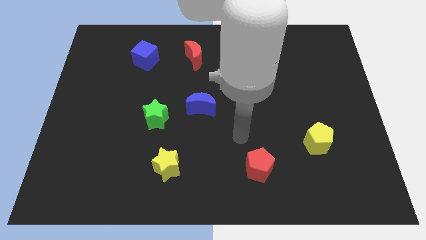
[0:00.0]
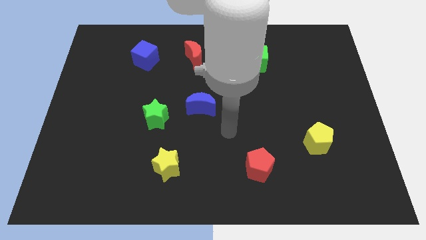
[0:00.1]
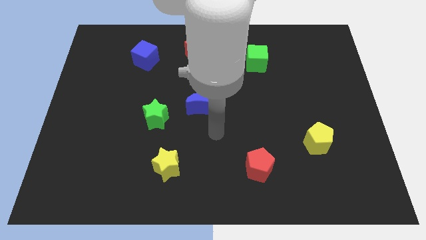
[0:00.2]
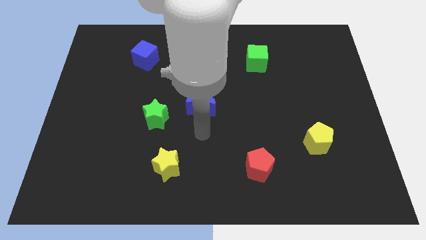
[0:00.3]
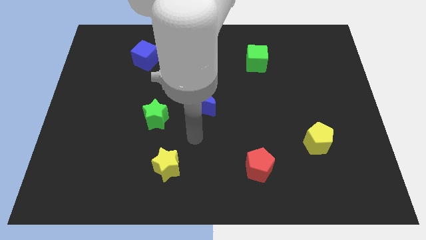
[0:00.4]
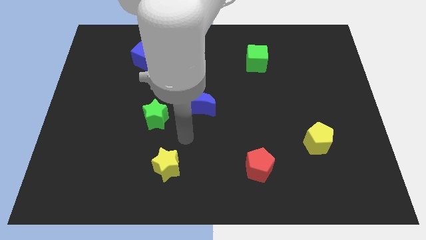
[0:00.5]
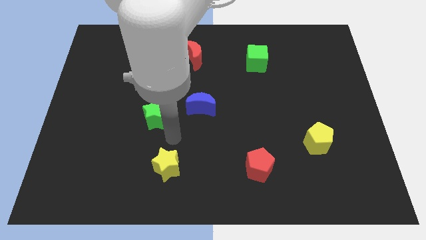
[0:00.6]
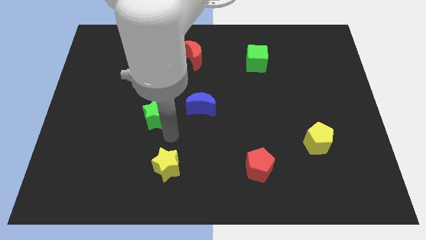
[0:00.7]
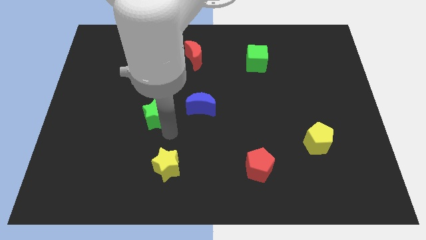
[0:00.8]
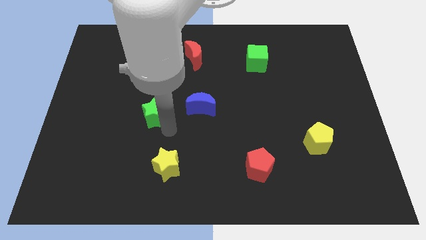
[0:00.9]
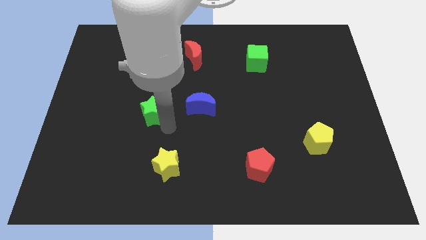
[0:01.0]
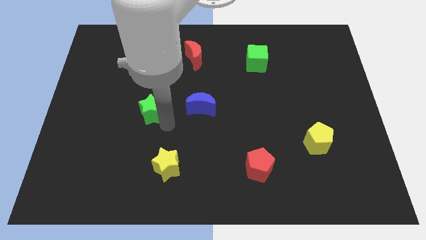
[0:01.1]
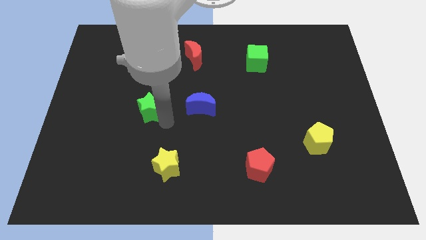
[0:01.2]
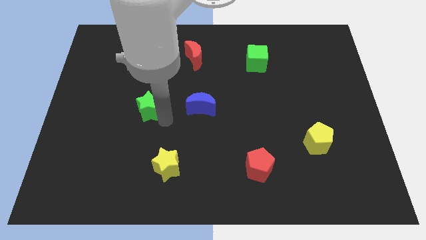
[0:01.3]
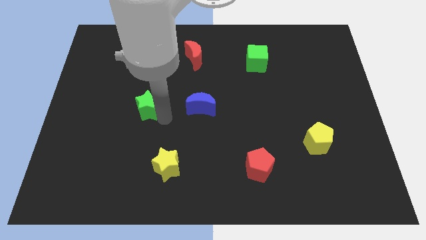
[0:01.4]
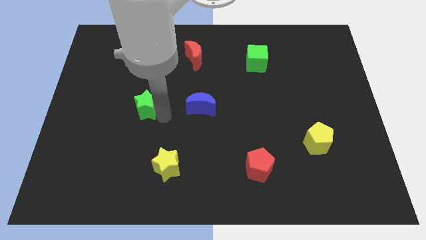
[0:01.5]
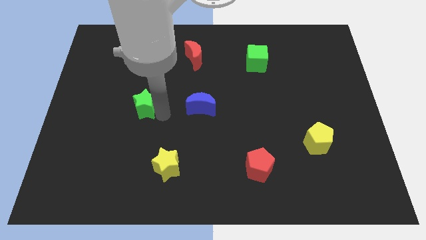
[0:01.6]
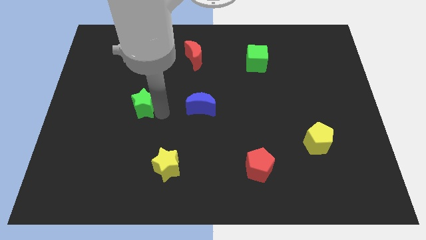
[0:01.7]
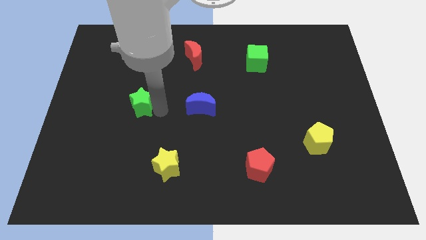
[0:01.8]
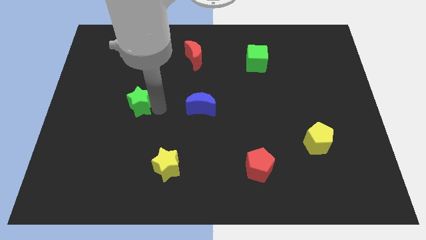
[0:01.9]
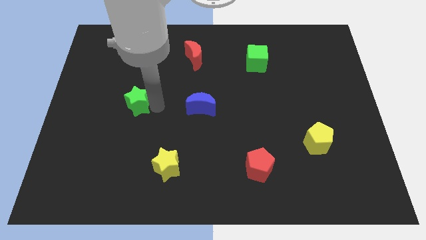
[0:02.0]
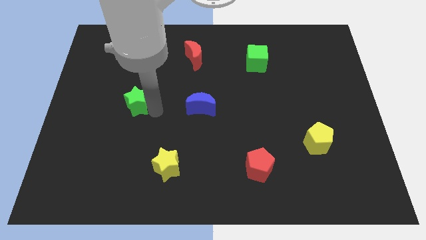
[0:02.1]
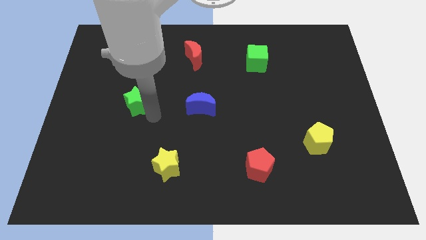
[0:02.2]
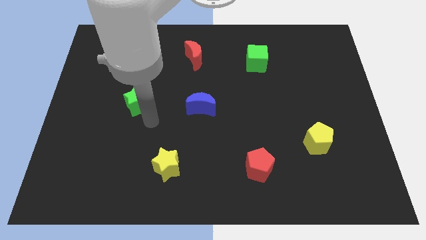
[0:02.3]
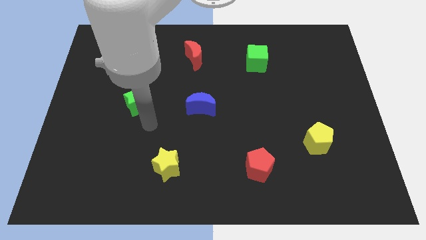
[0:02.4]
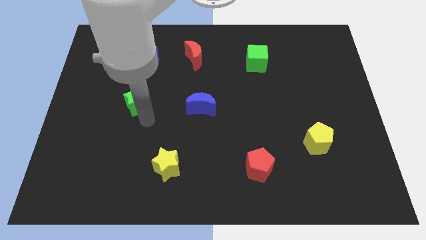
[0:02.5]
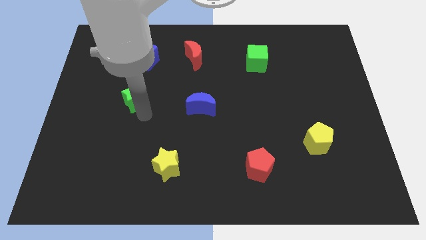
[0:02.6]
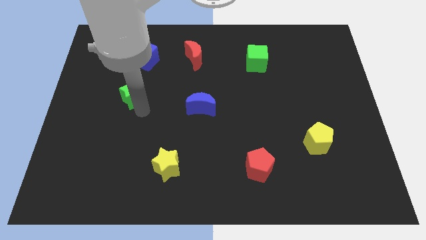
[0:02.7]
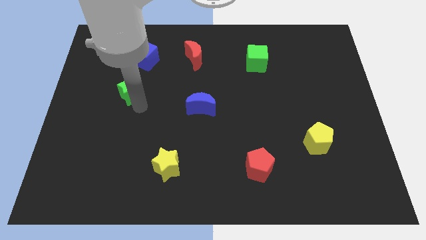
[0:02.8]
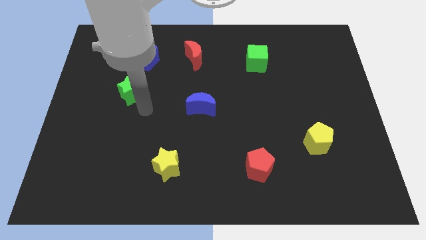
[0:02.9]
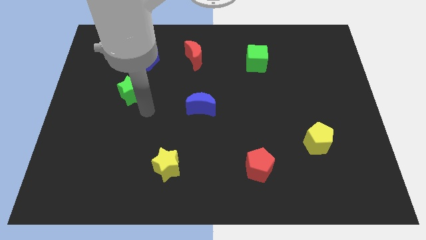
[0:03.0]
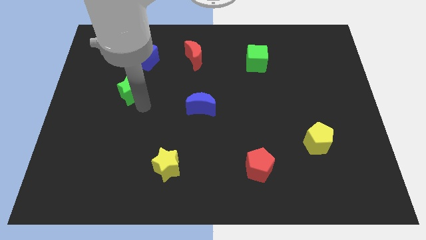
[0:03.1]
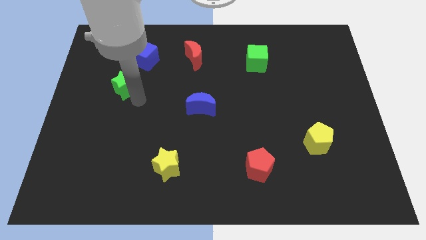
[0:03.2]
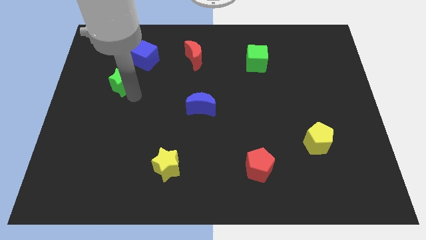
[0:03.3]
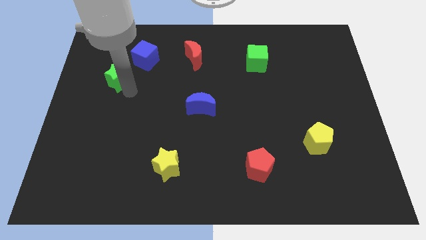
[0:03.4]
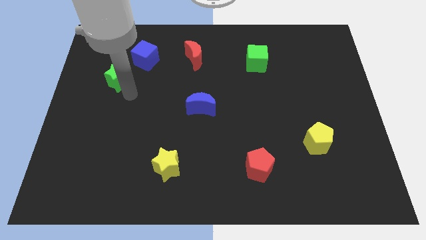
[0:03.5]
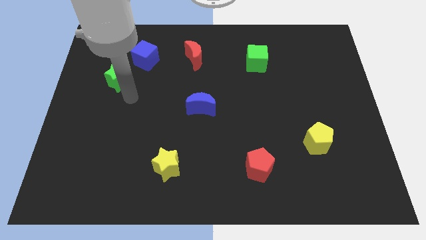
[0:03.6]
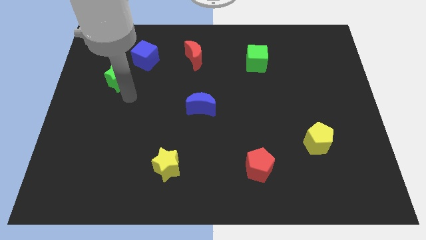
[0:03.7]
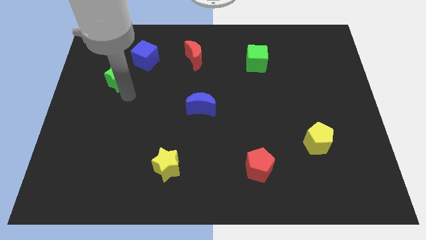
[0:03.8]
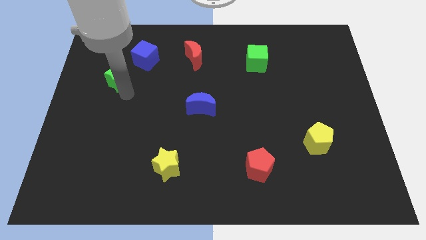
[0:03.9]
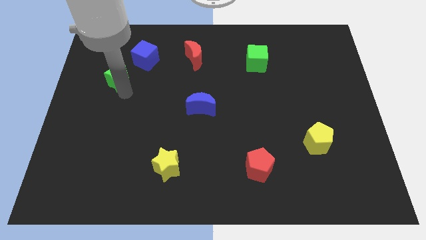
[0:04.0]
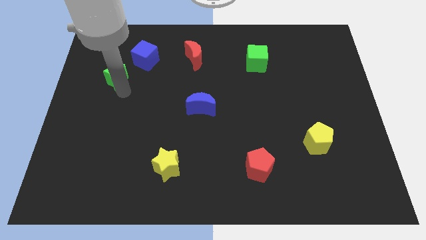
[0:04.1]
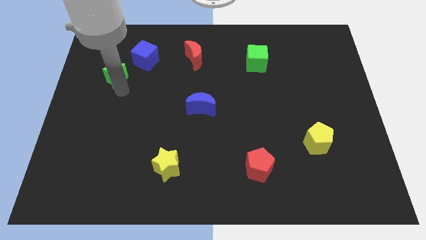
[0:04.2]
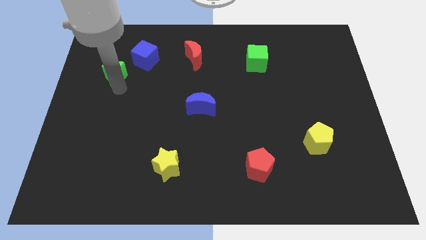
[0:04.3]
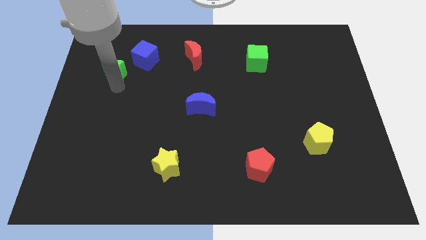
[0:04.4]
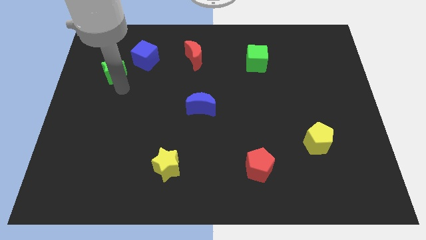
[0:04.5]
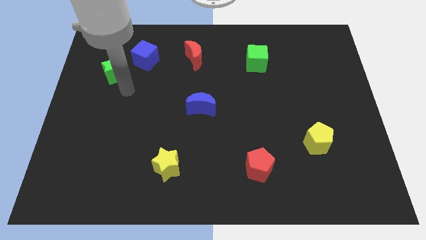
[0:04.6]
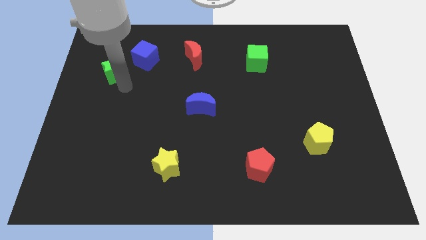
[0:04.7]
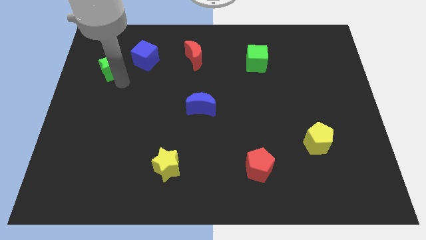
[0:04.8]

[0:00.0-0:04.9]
slide the green star just left of the blue cube

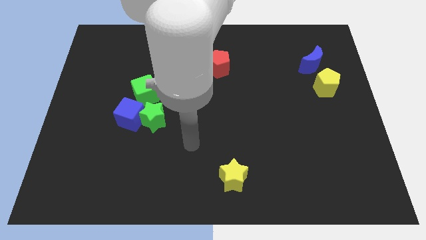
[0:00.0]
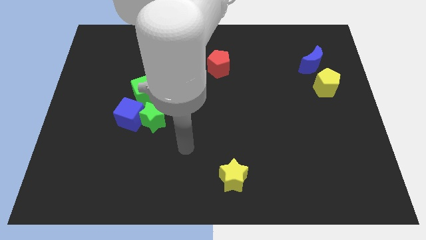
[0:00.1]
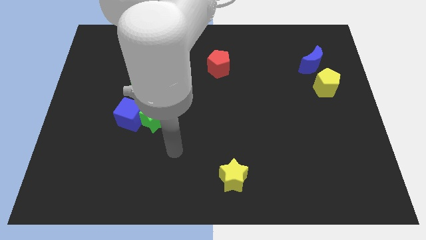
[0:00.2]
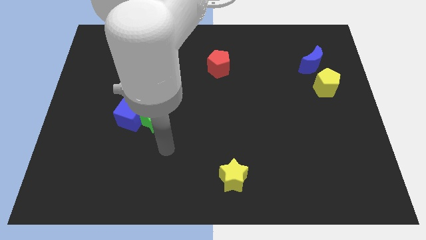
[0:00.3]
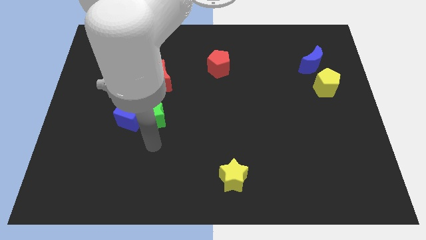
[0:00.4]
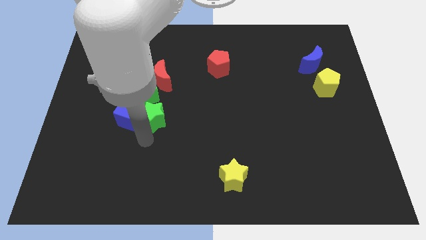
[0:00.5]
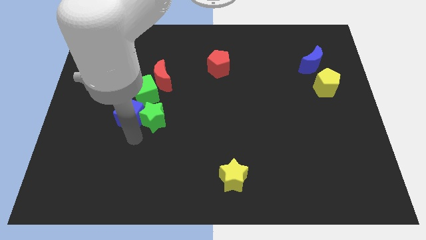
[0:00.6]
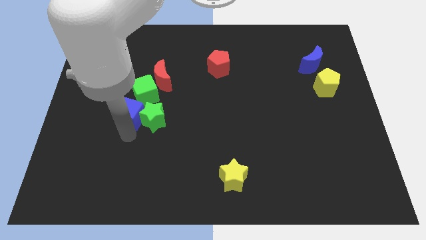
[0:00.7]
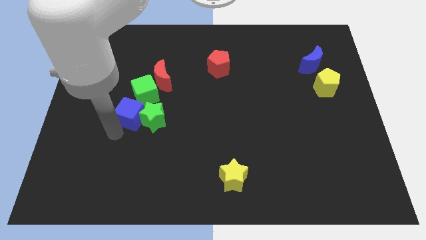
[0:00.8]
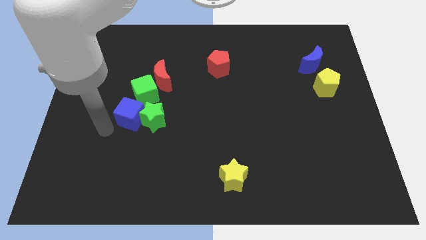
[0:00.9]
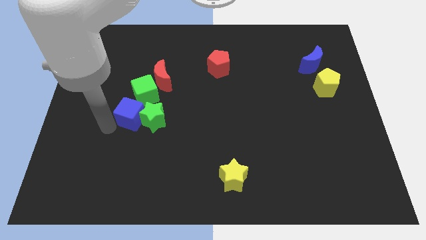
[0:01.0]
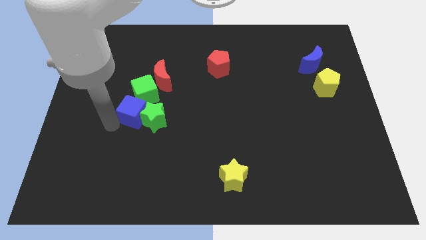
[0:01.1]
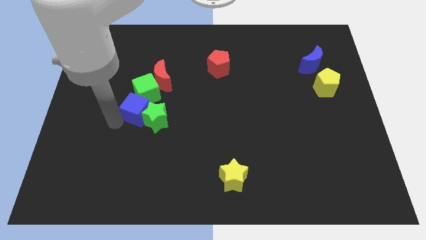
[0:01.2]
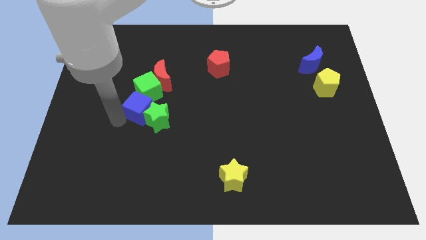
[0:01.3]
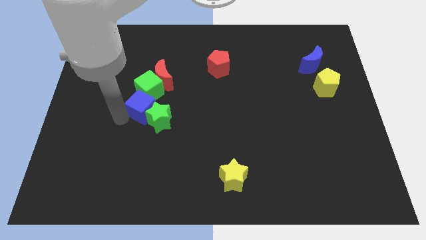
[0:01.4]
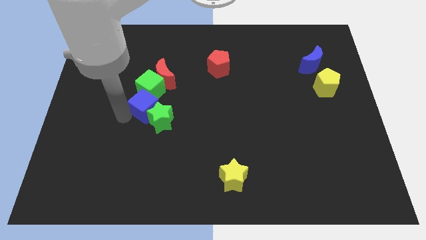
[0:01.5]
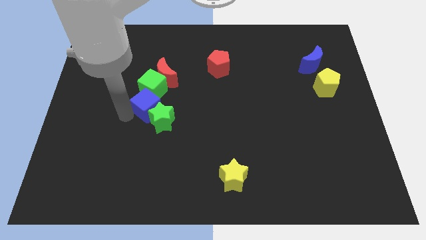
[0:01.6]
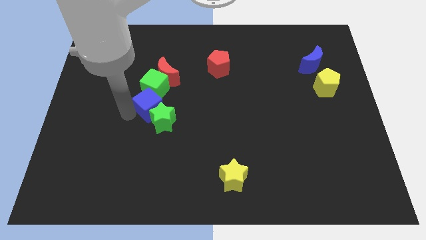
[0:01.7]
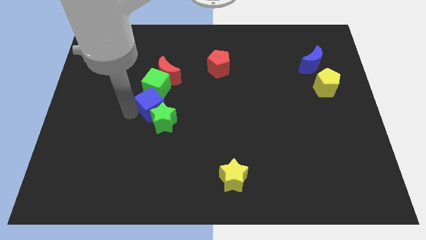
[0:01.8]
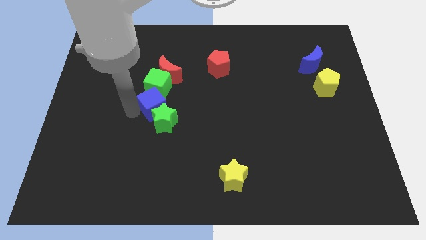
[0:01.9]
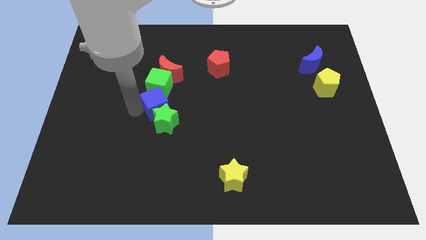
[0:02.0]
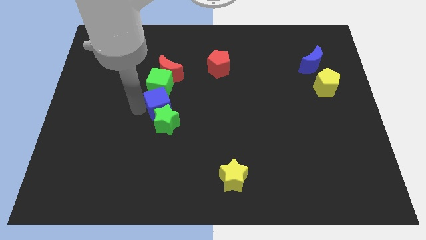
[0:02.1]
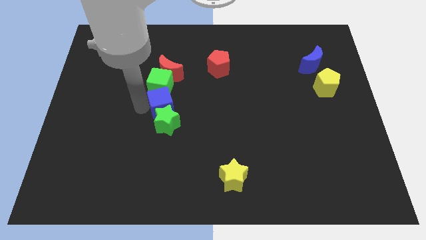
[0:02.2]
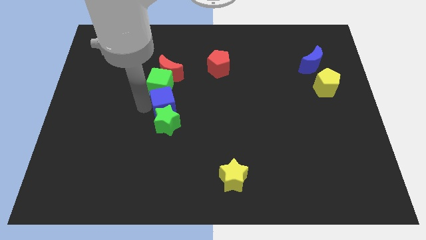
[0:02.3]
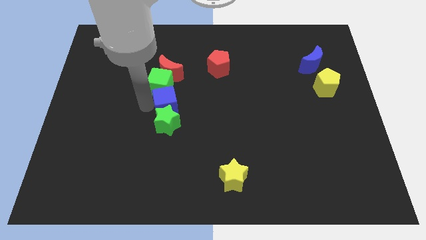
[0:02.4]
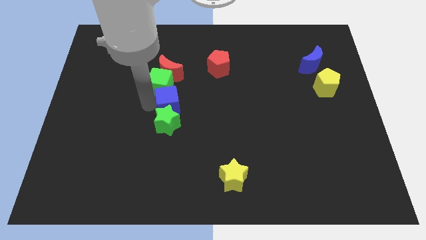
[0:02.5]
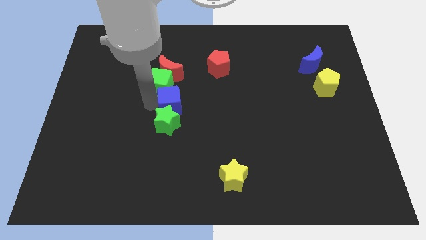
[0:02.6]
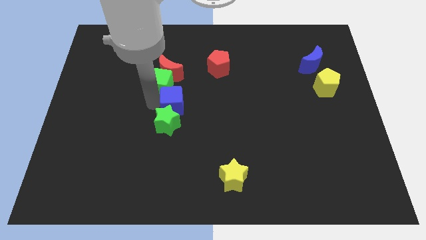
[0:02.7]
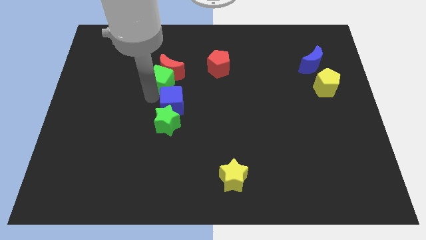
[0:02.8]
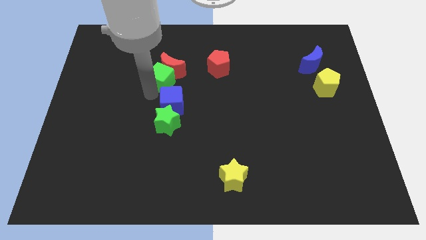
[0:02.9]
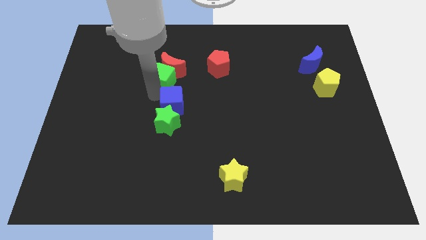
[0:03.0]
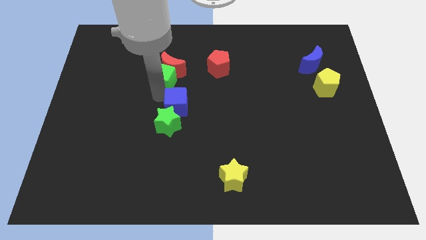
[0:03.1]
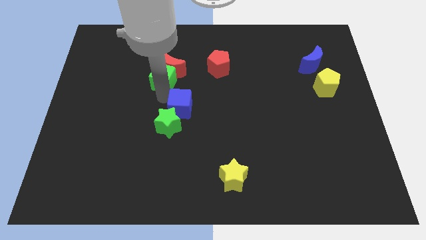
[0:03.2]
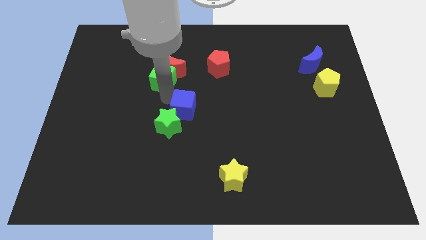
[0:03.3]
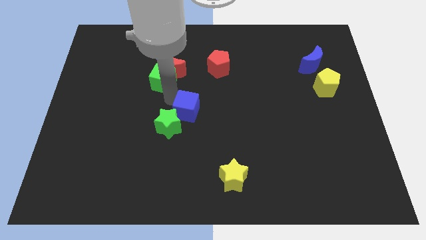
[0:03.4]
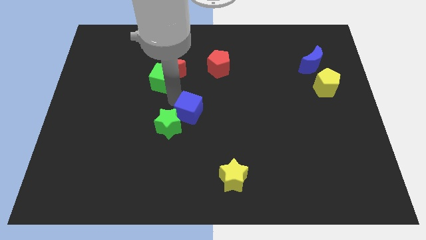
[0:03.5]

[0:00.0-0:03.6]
move the blue cube just right of the green star
